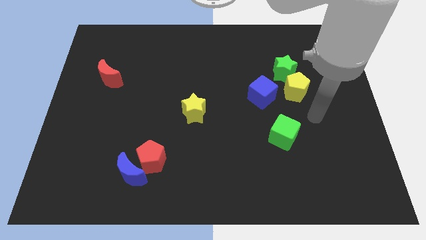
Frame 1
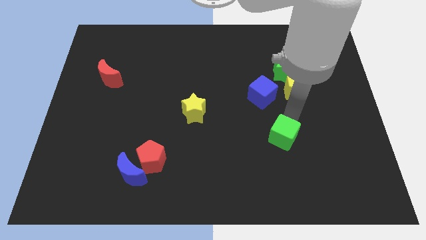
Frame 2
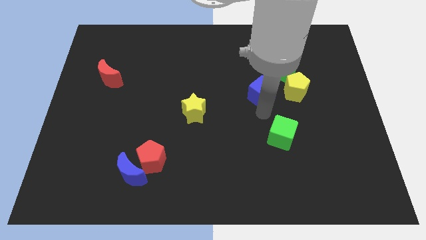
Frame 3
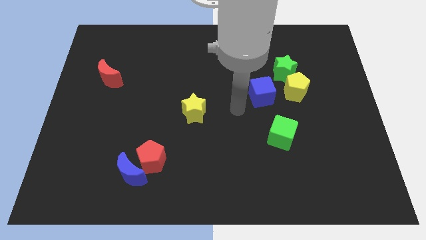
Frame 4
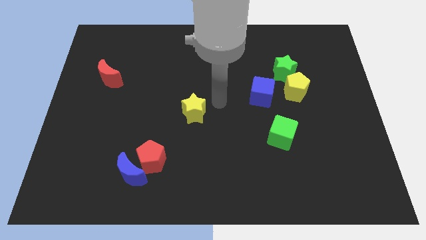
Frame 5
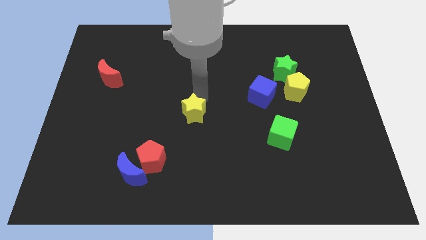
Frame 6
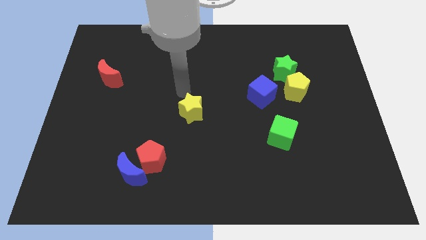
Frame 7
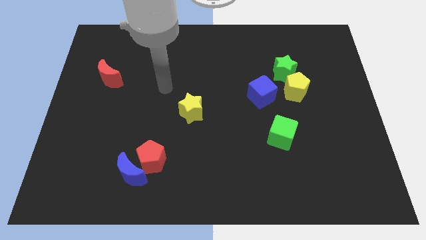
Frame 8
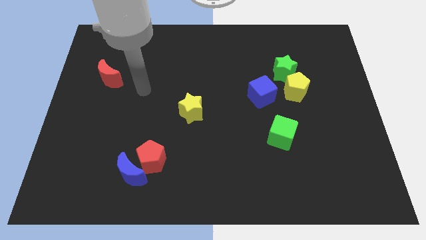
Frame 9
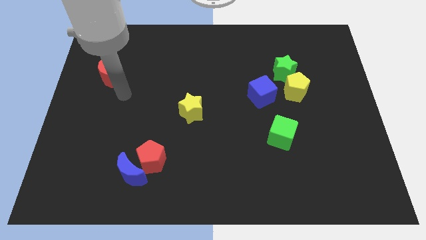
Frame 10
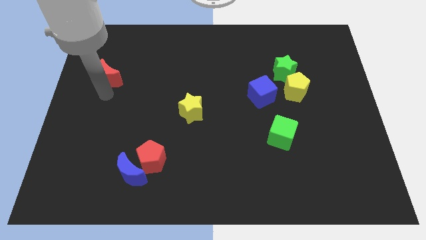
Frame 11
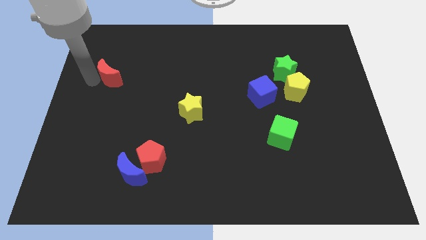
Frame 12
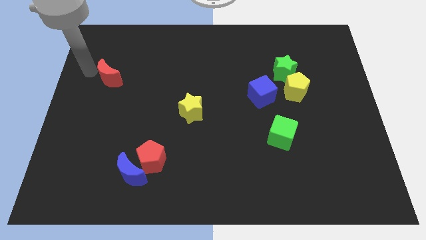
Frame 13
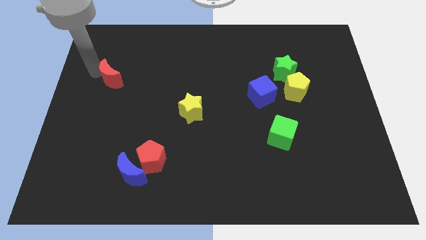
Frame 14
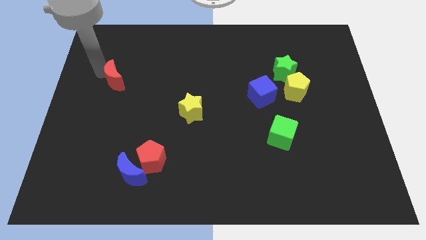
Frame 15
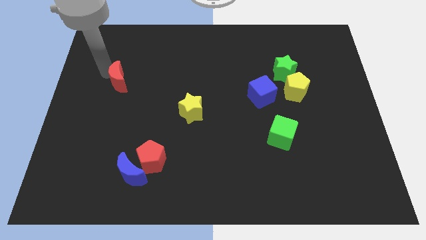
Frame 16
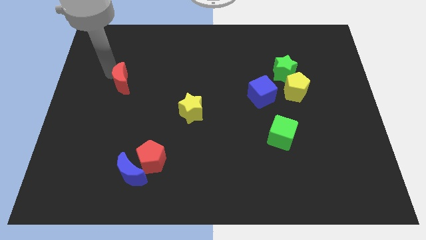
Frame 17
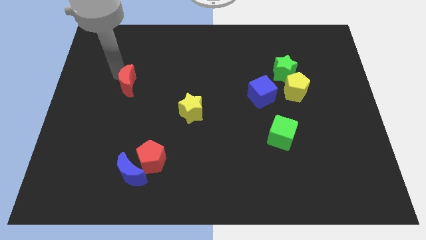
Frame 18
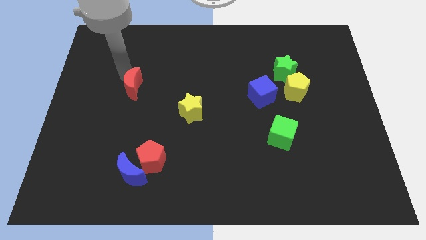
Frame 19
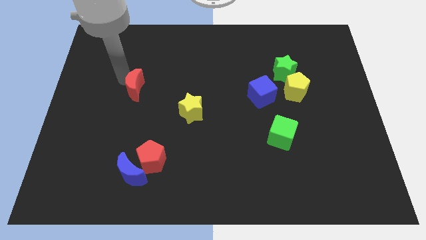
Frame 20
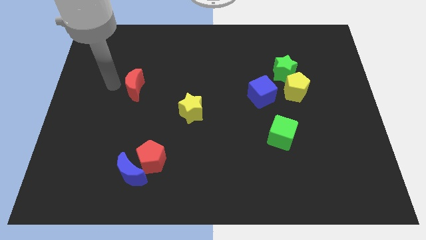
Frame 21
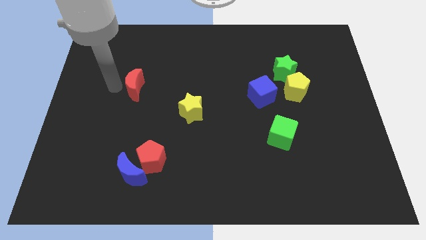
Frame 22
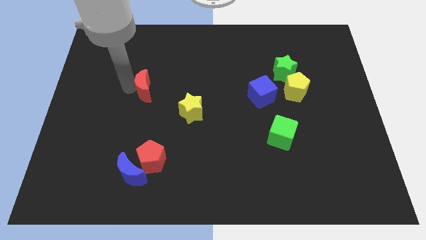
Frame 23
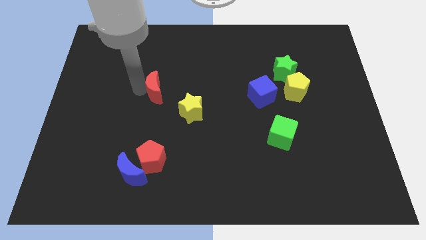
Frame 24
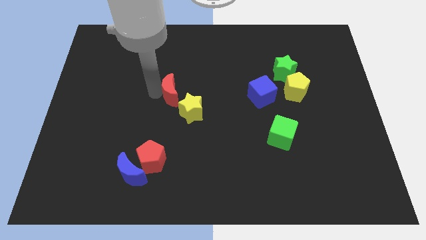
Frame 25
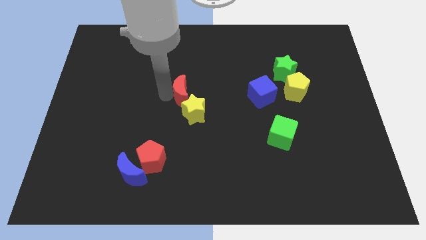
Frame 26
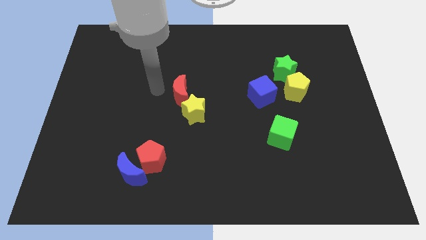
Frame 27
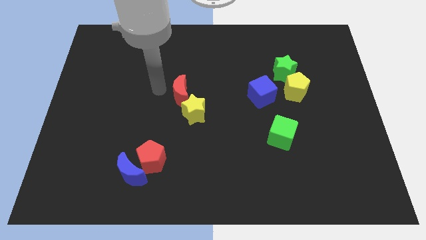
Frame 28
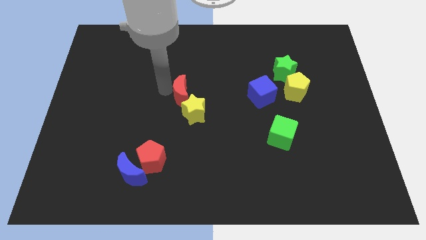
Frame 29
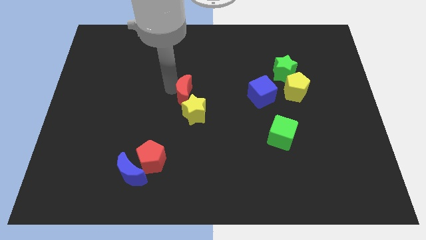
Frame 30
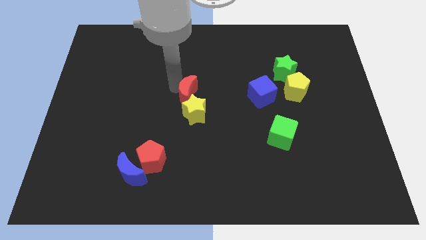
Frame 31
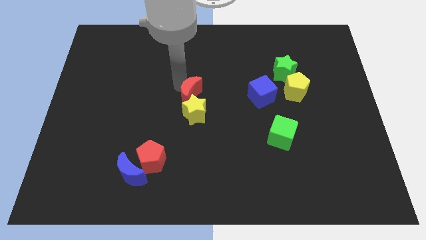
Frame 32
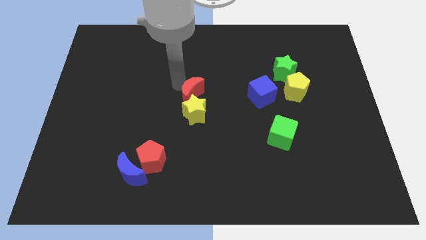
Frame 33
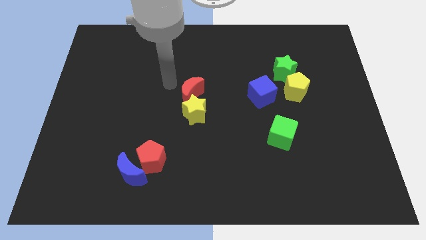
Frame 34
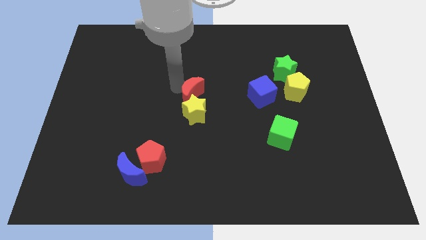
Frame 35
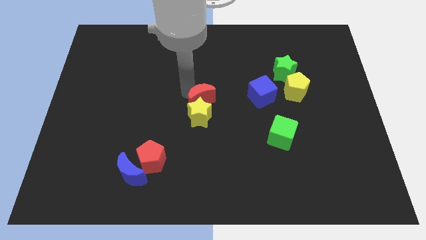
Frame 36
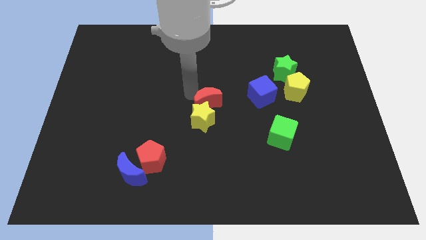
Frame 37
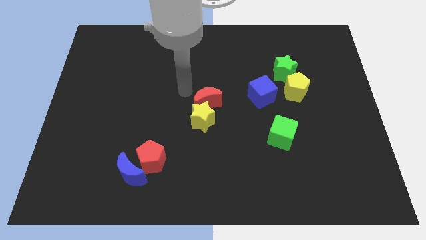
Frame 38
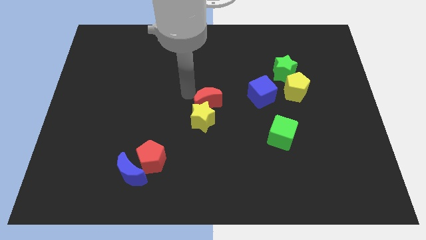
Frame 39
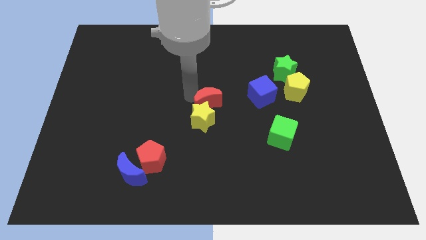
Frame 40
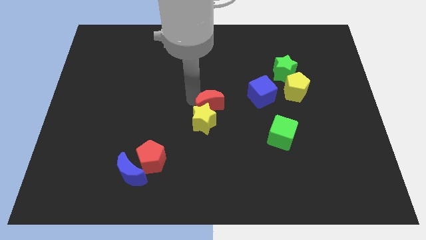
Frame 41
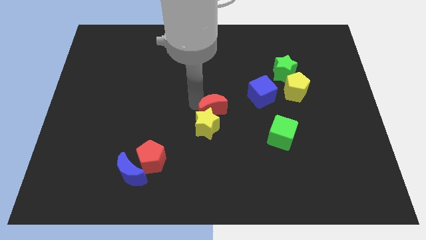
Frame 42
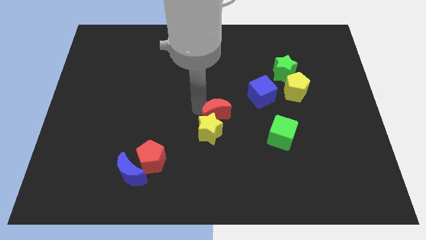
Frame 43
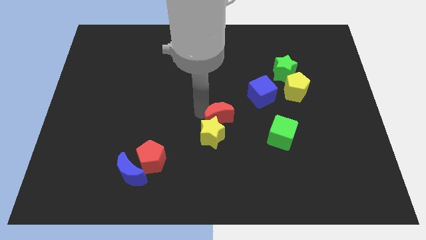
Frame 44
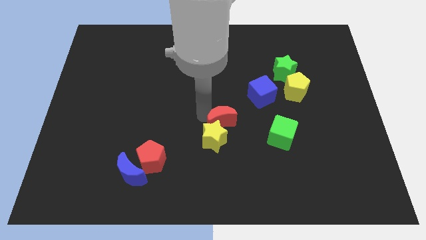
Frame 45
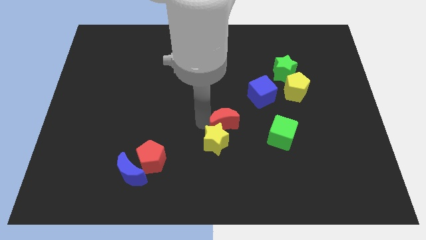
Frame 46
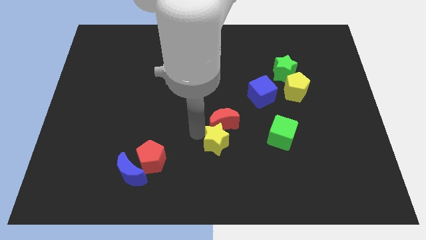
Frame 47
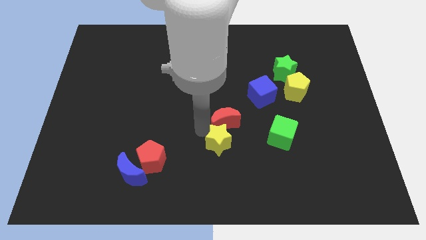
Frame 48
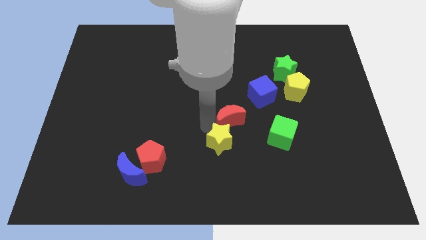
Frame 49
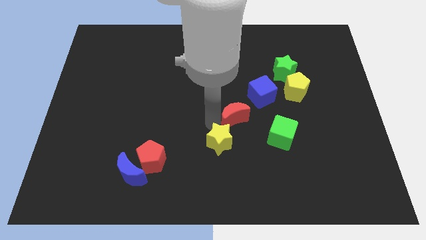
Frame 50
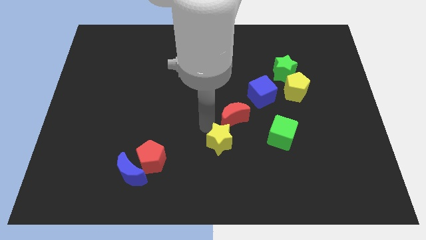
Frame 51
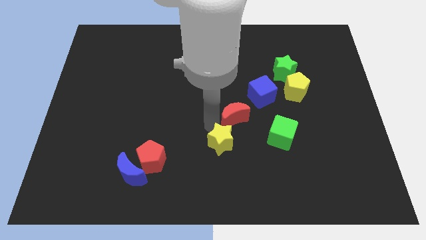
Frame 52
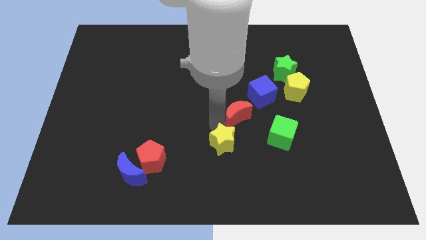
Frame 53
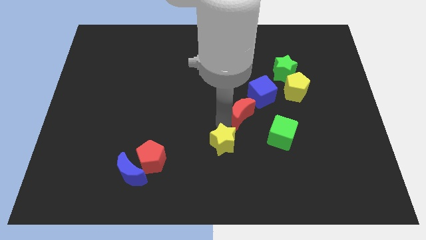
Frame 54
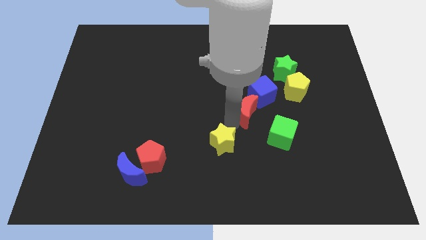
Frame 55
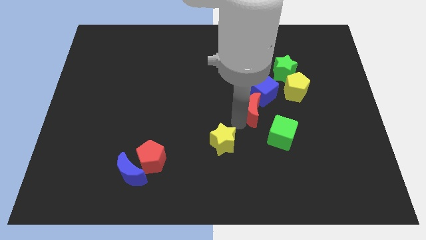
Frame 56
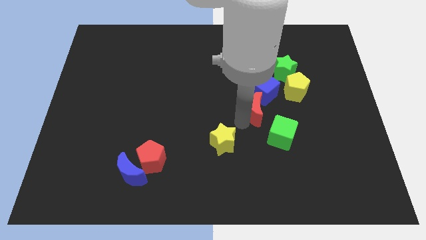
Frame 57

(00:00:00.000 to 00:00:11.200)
slide the red moon to the bottom left side of the yellow pentagon
